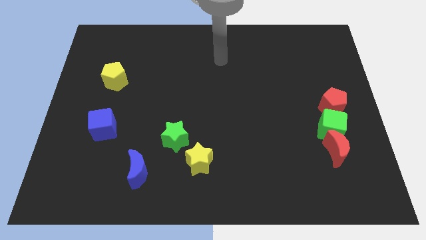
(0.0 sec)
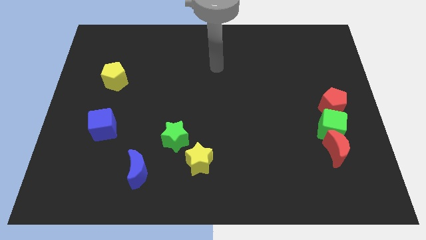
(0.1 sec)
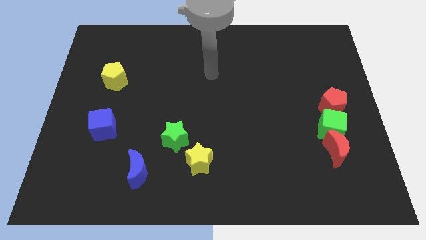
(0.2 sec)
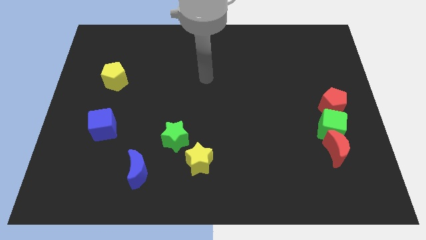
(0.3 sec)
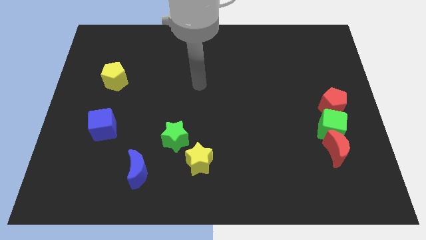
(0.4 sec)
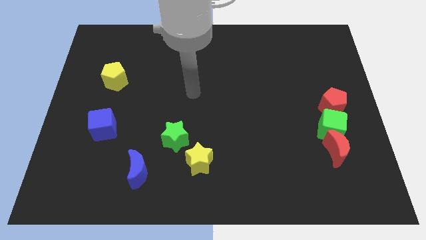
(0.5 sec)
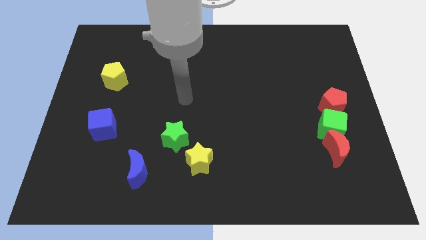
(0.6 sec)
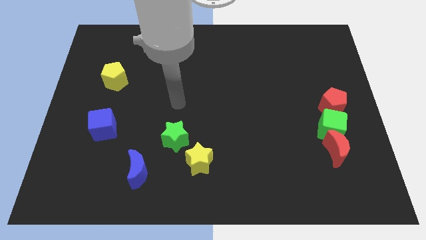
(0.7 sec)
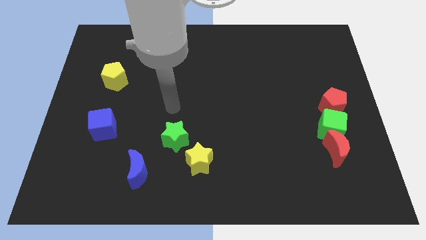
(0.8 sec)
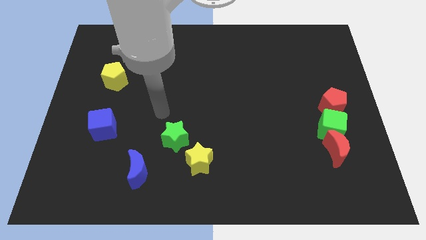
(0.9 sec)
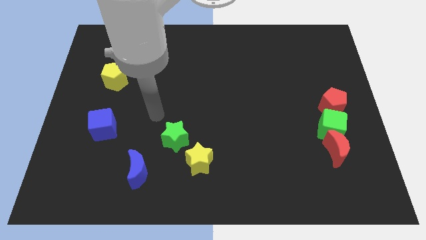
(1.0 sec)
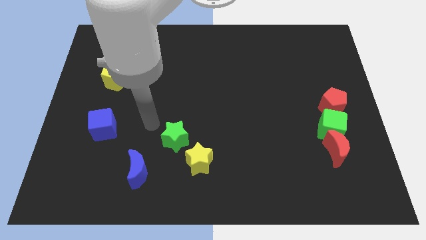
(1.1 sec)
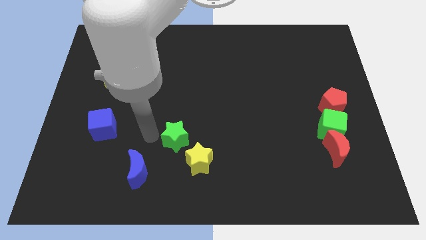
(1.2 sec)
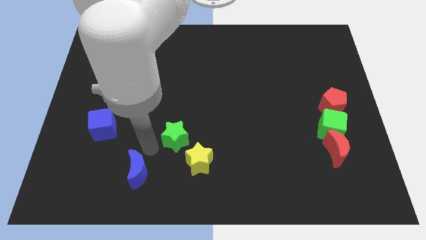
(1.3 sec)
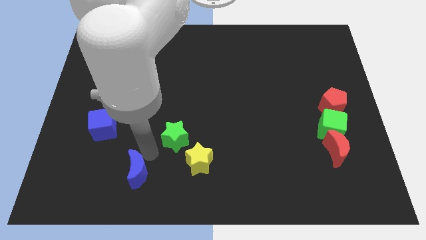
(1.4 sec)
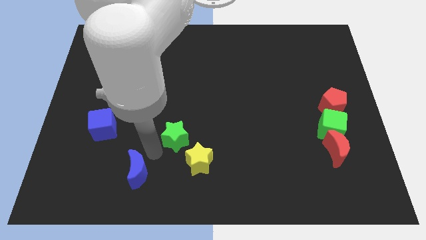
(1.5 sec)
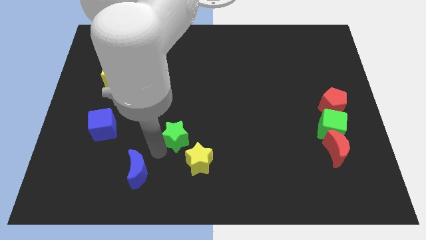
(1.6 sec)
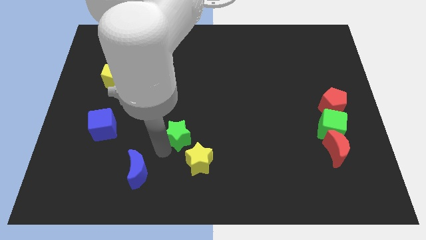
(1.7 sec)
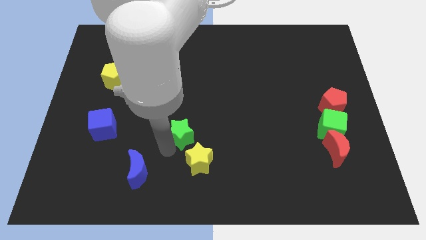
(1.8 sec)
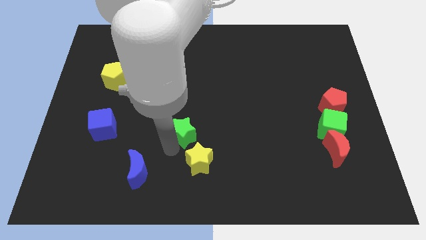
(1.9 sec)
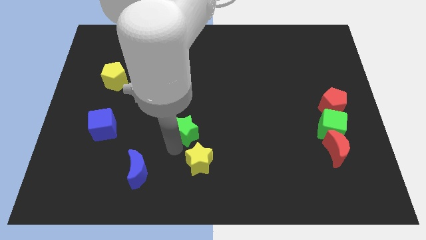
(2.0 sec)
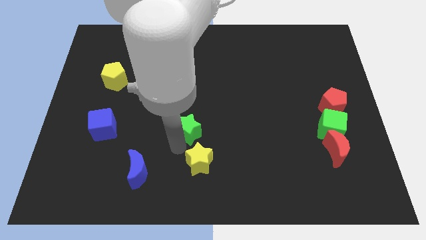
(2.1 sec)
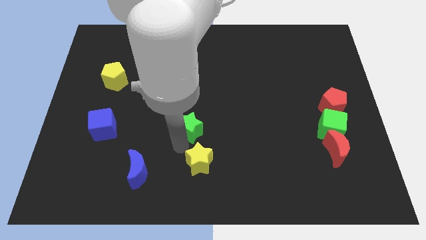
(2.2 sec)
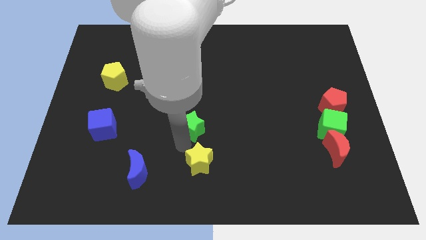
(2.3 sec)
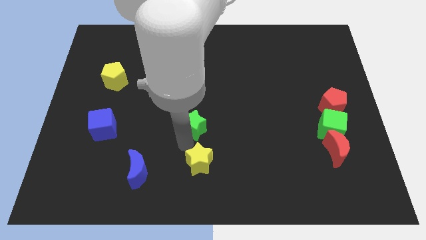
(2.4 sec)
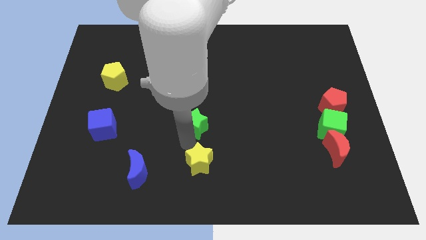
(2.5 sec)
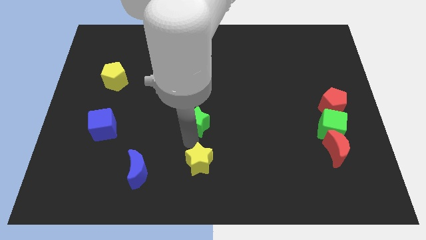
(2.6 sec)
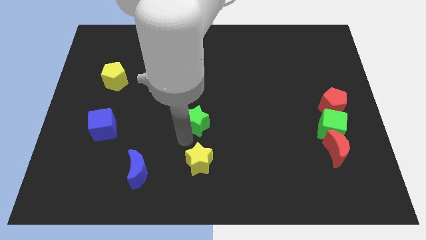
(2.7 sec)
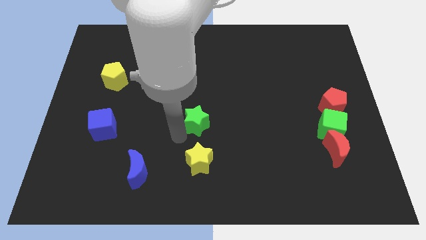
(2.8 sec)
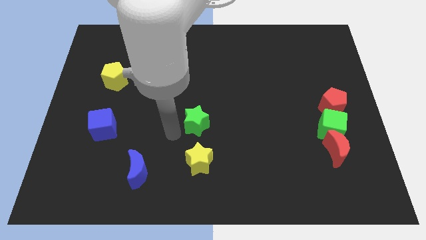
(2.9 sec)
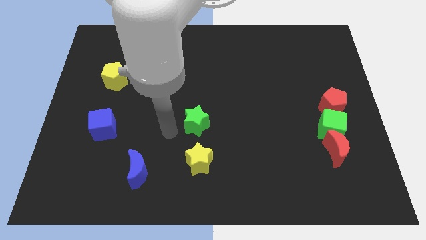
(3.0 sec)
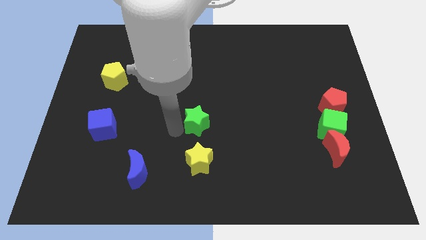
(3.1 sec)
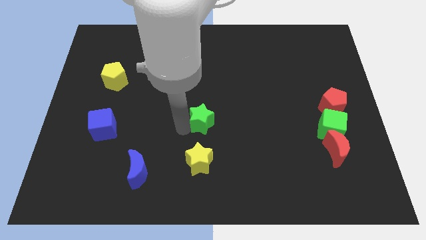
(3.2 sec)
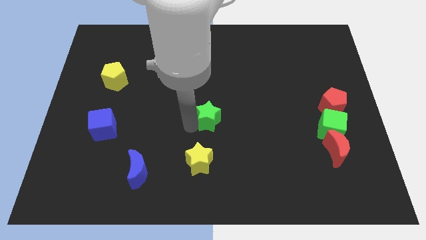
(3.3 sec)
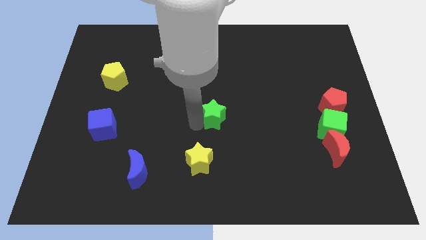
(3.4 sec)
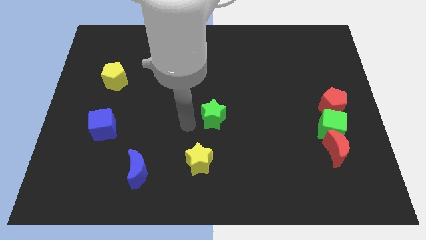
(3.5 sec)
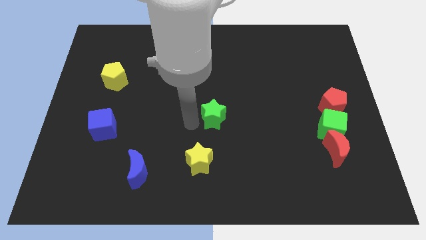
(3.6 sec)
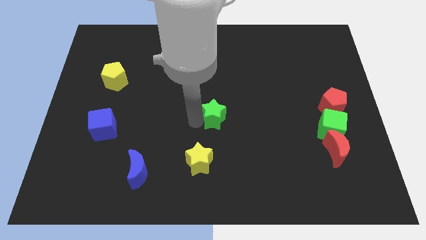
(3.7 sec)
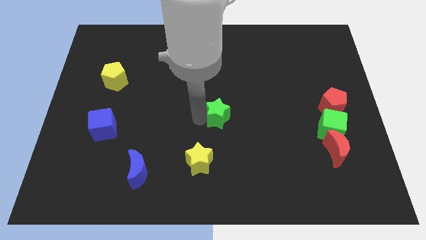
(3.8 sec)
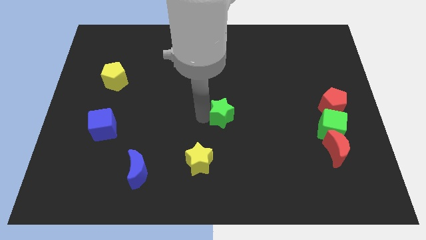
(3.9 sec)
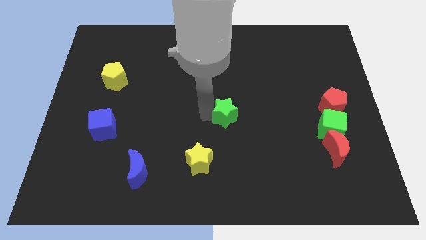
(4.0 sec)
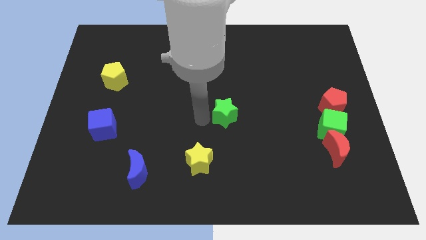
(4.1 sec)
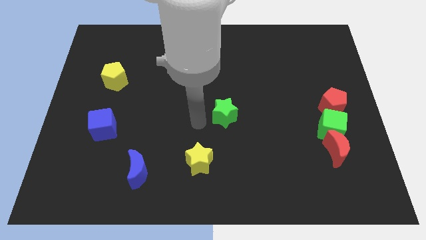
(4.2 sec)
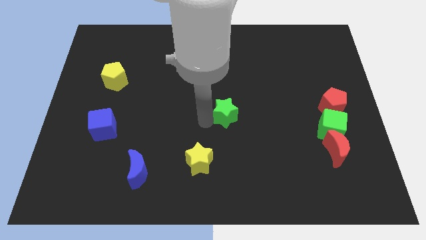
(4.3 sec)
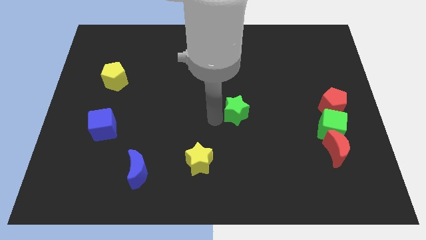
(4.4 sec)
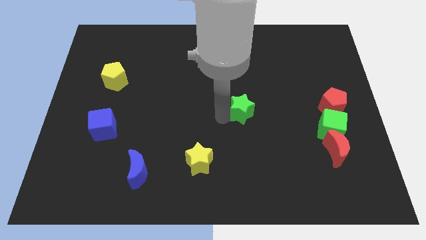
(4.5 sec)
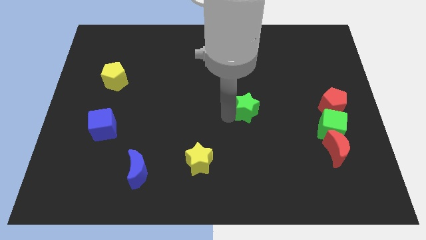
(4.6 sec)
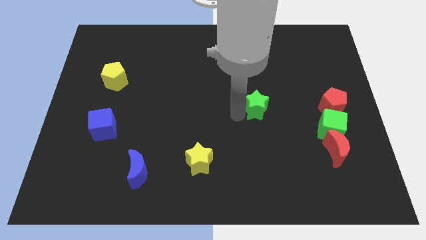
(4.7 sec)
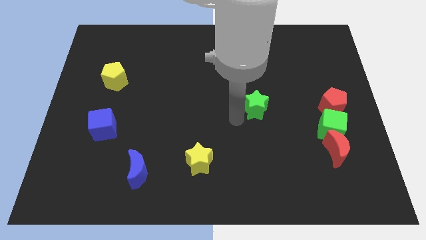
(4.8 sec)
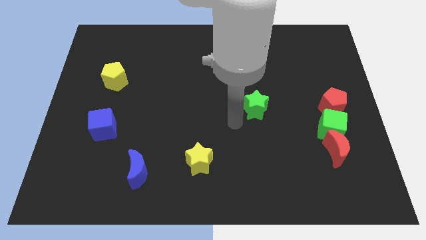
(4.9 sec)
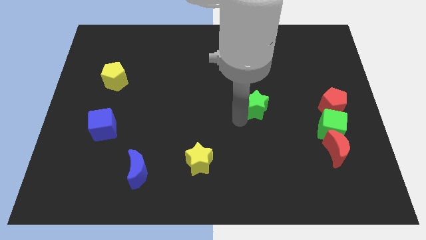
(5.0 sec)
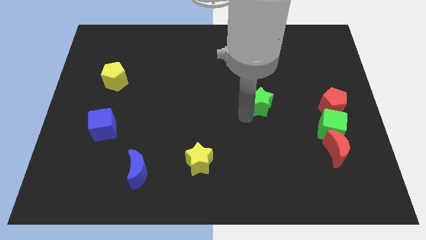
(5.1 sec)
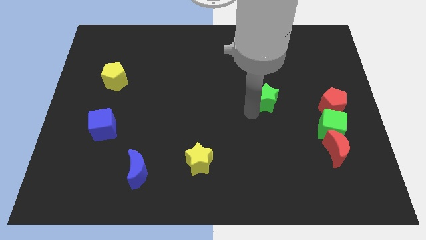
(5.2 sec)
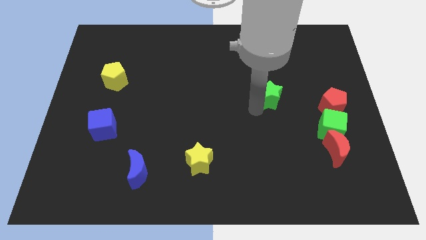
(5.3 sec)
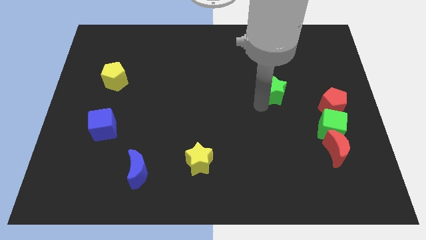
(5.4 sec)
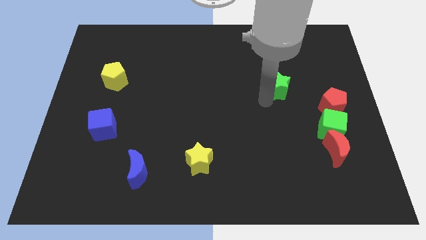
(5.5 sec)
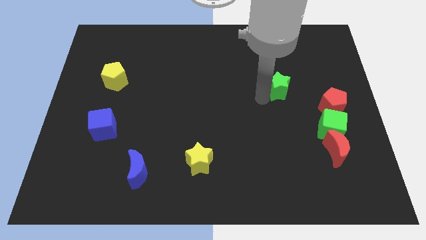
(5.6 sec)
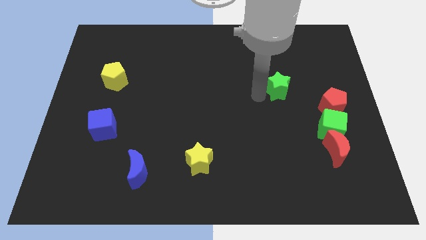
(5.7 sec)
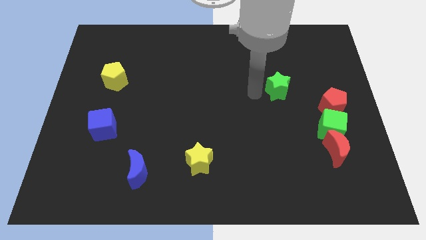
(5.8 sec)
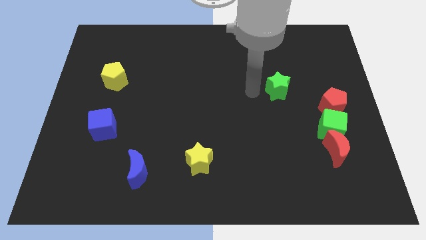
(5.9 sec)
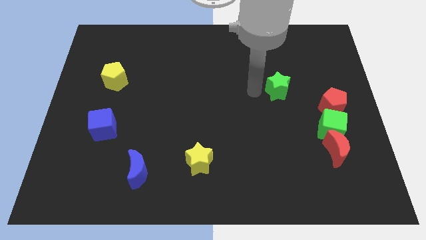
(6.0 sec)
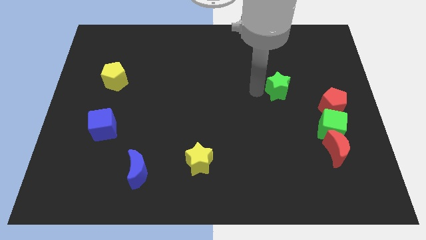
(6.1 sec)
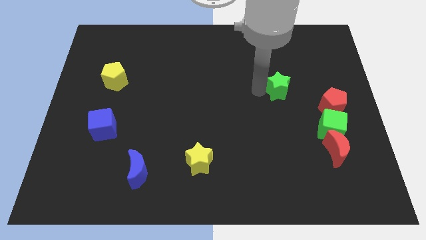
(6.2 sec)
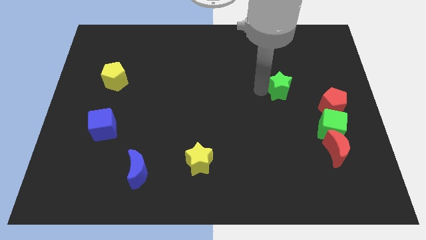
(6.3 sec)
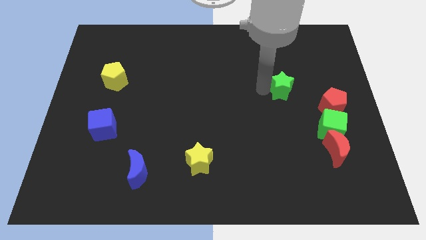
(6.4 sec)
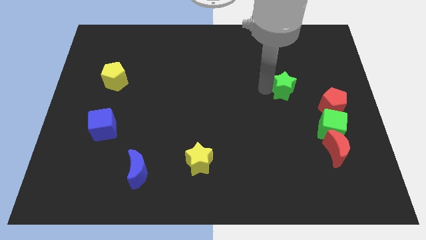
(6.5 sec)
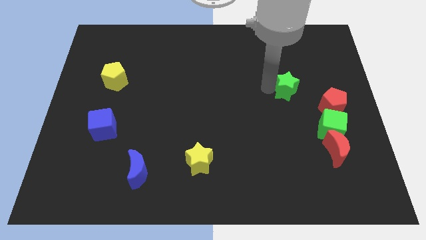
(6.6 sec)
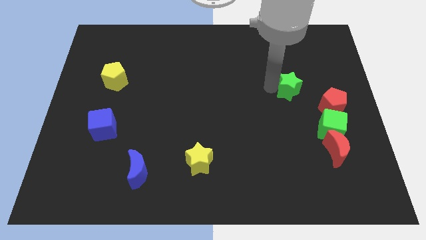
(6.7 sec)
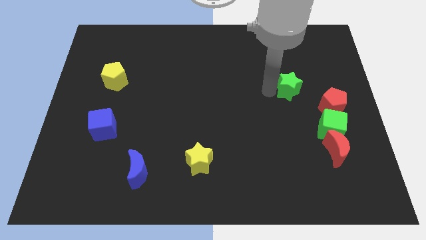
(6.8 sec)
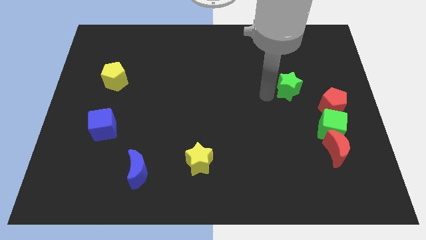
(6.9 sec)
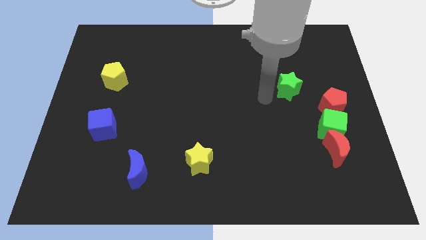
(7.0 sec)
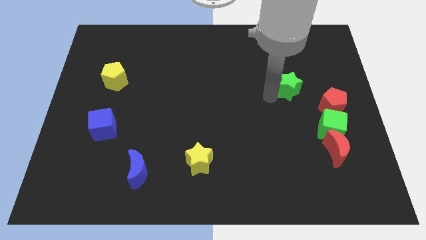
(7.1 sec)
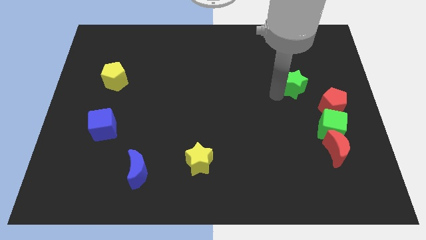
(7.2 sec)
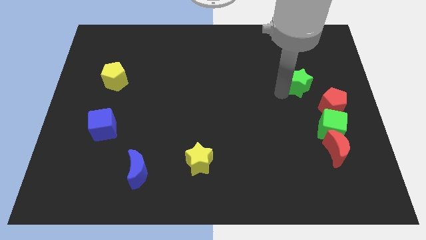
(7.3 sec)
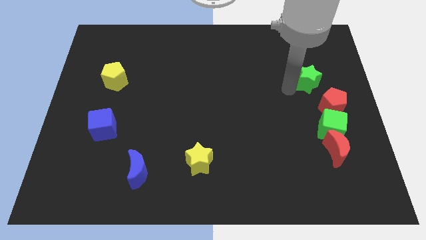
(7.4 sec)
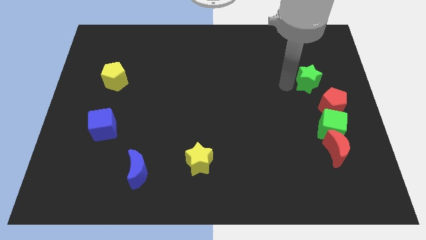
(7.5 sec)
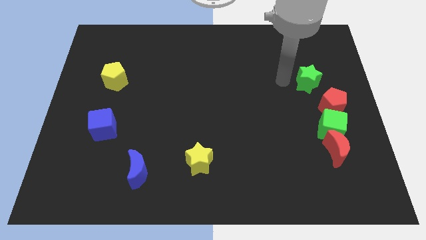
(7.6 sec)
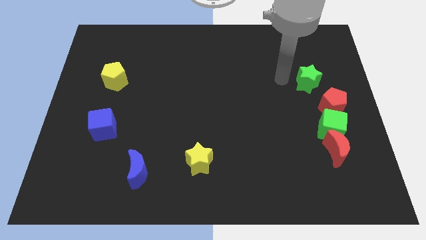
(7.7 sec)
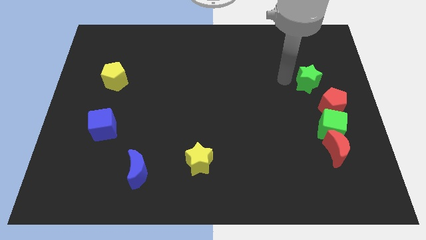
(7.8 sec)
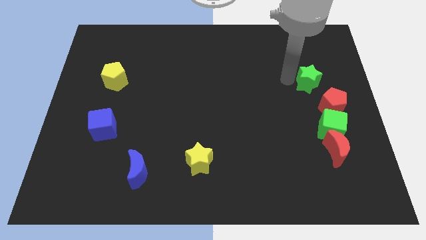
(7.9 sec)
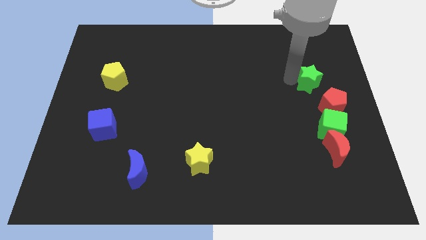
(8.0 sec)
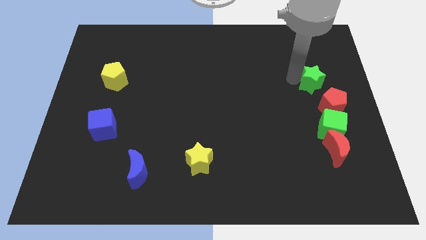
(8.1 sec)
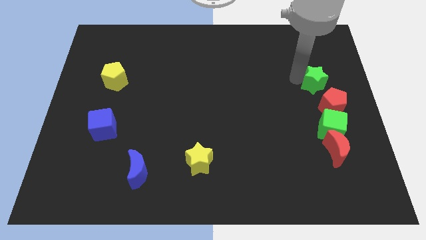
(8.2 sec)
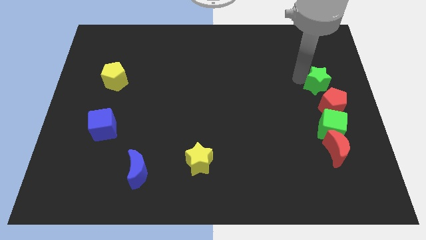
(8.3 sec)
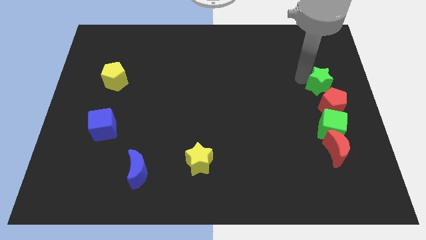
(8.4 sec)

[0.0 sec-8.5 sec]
slide the green star to the right side of the board
